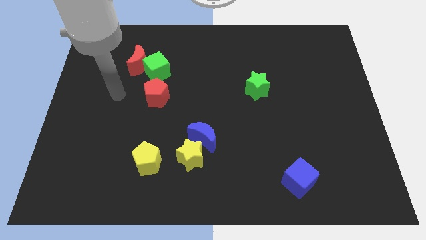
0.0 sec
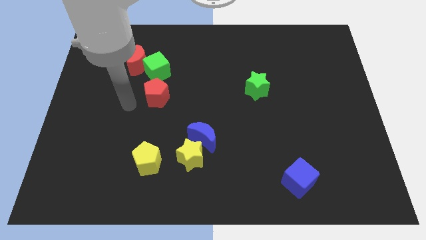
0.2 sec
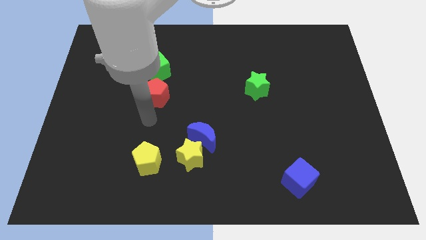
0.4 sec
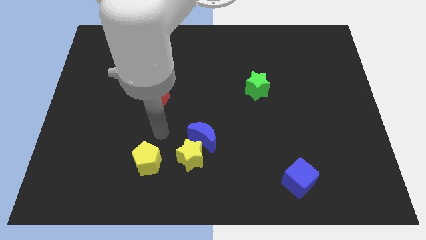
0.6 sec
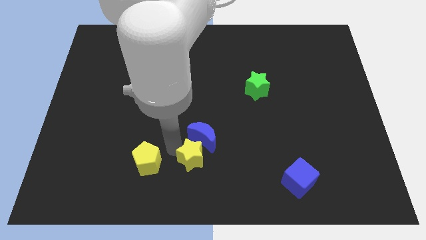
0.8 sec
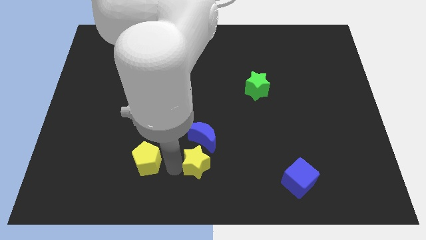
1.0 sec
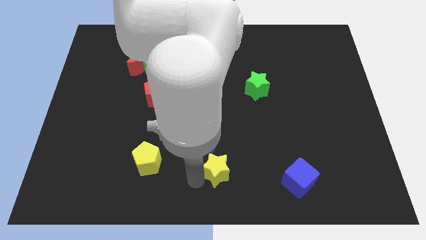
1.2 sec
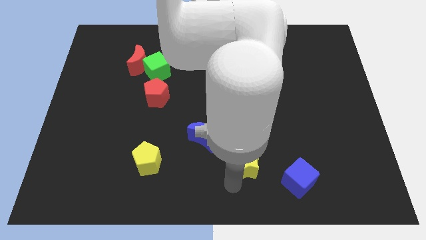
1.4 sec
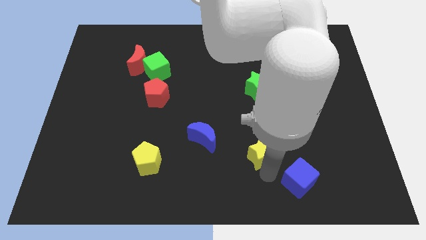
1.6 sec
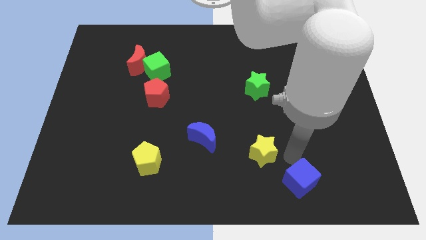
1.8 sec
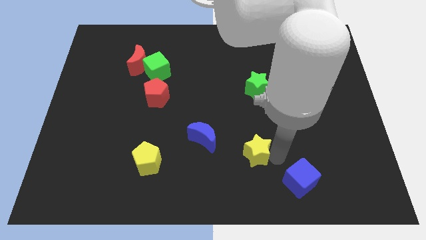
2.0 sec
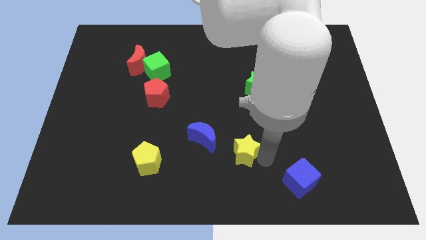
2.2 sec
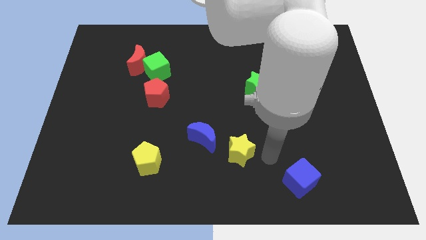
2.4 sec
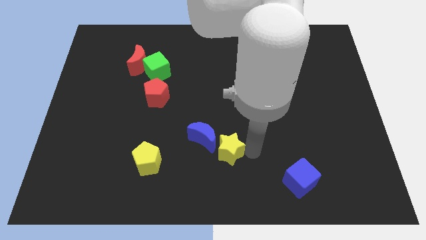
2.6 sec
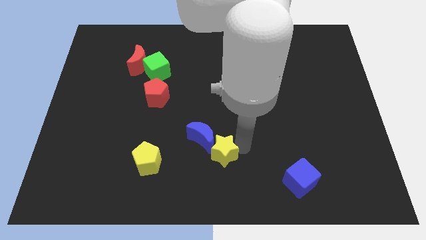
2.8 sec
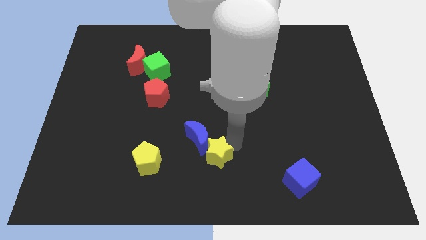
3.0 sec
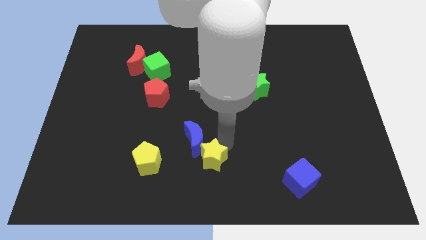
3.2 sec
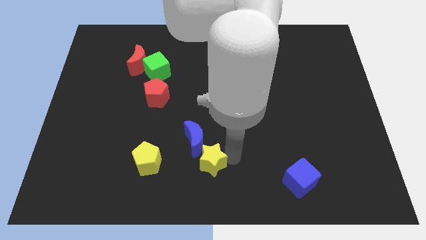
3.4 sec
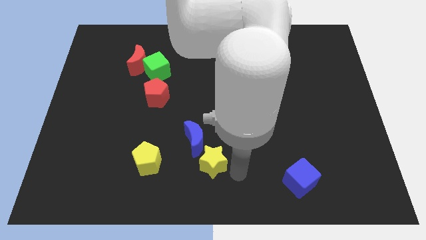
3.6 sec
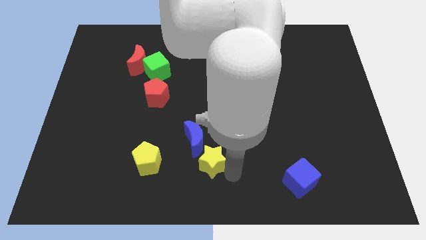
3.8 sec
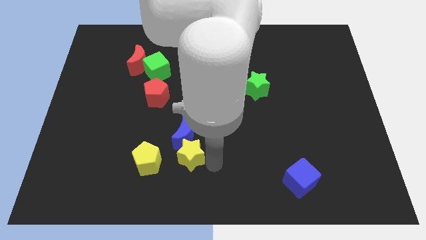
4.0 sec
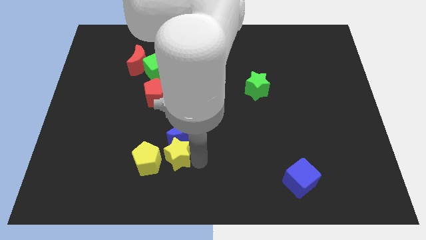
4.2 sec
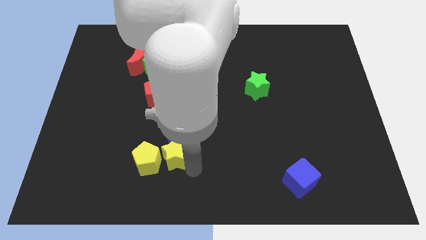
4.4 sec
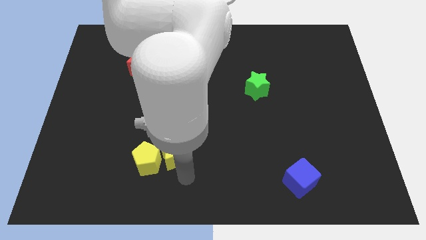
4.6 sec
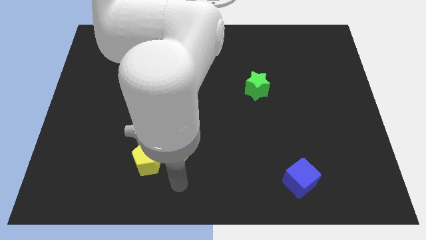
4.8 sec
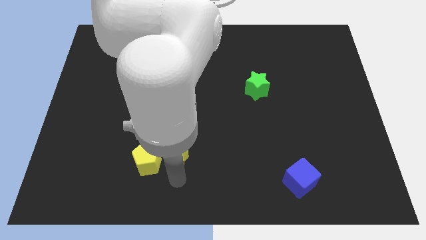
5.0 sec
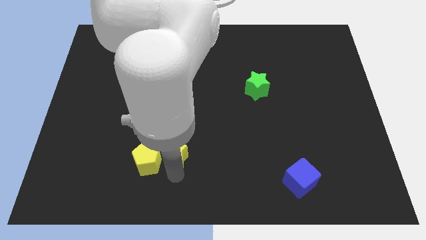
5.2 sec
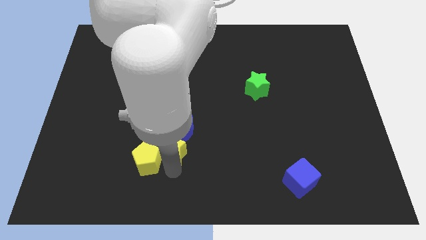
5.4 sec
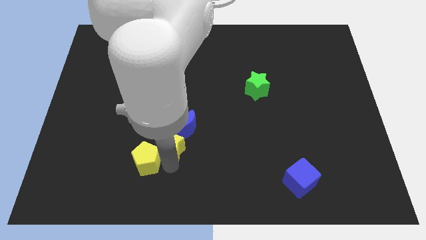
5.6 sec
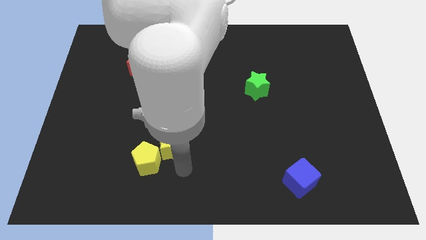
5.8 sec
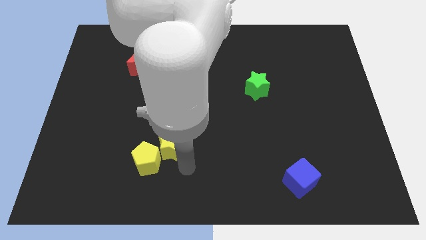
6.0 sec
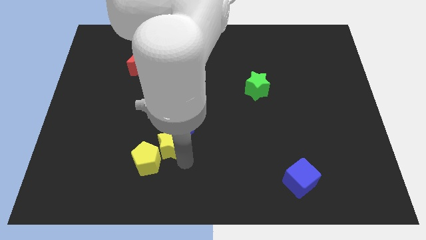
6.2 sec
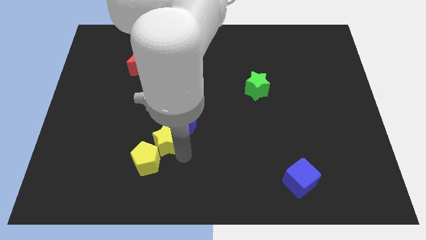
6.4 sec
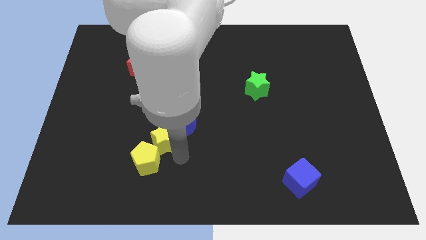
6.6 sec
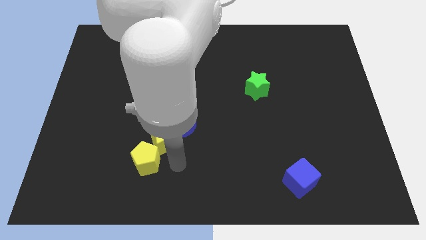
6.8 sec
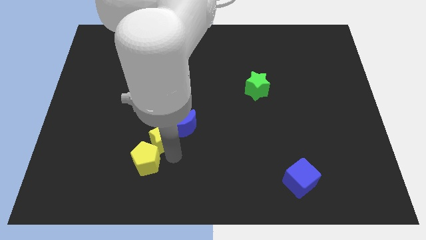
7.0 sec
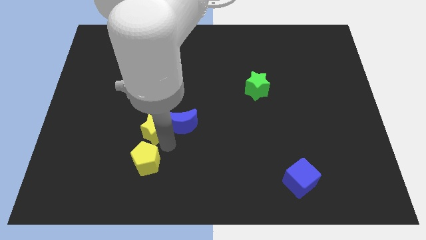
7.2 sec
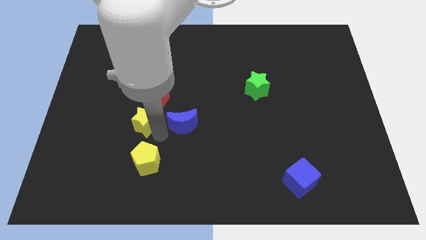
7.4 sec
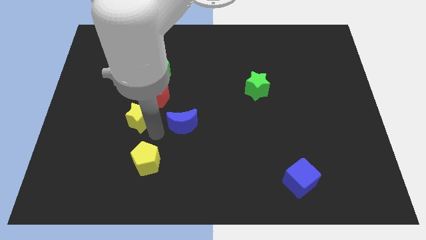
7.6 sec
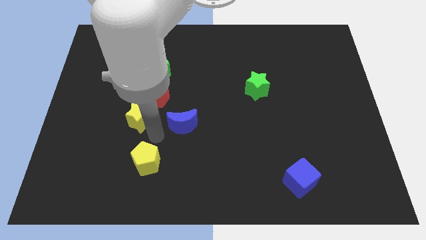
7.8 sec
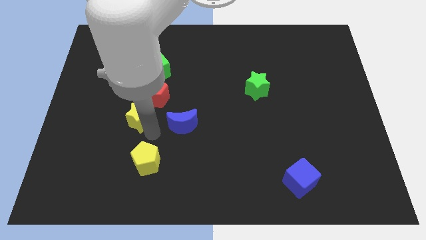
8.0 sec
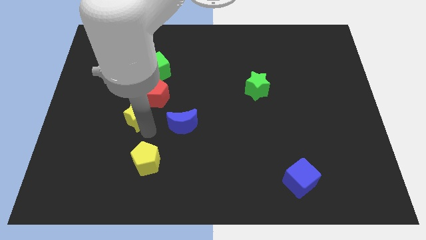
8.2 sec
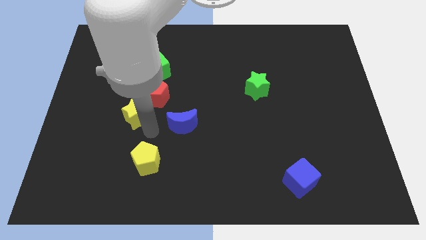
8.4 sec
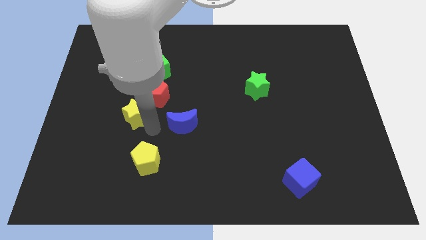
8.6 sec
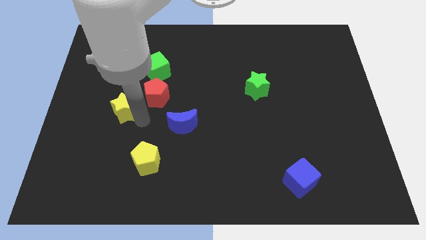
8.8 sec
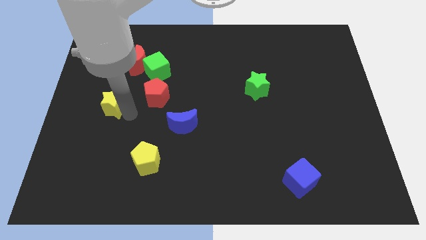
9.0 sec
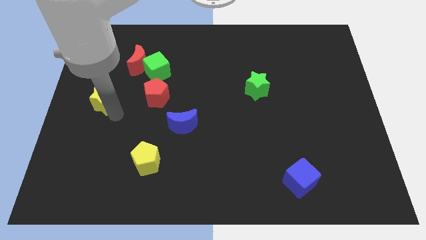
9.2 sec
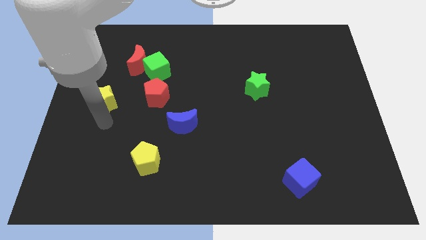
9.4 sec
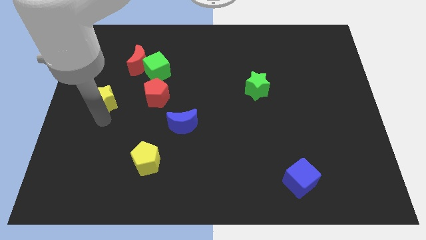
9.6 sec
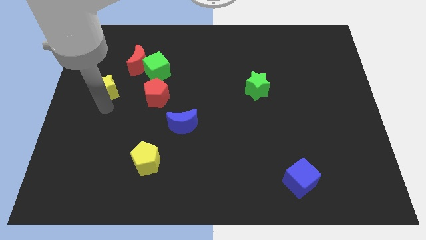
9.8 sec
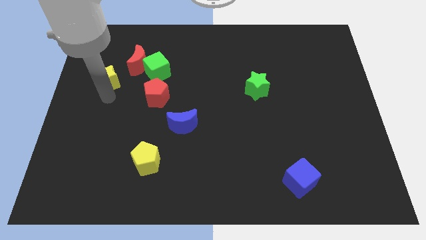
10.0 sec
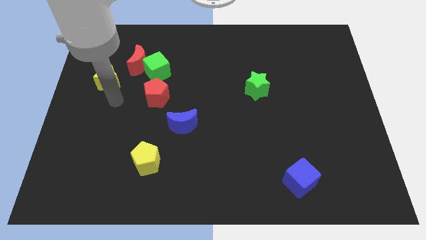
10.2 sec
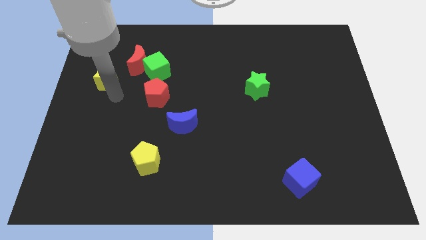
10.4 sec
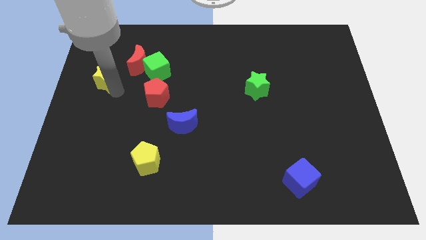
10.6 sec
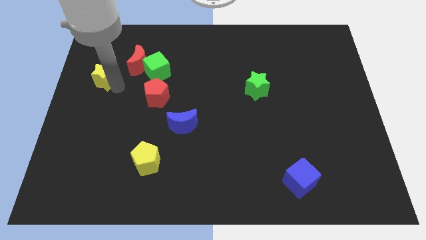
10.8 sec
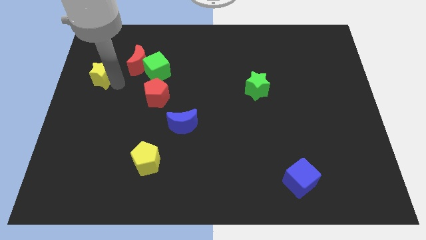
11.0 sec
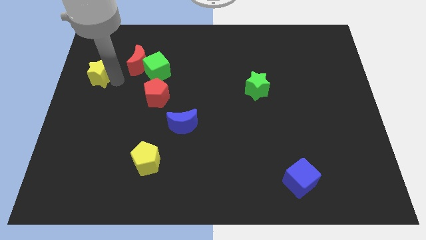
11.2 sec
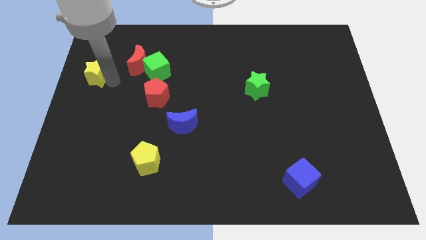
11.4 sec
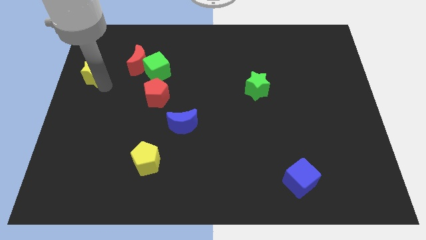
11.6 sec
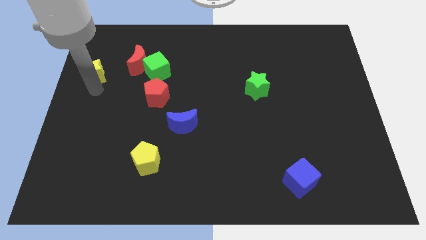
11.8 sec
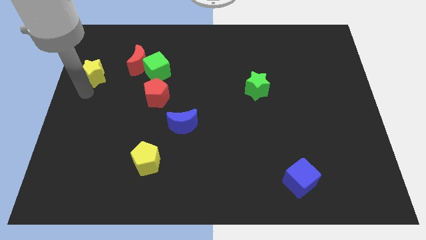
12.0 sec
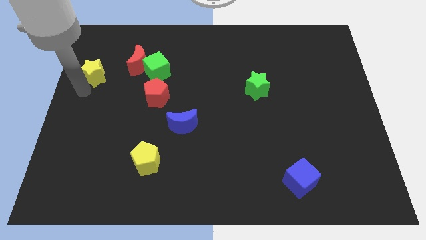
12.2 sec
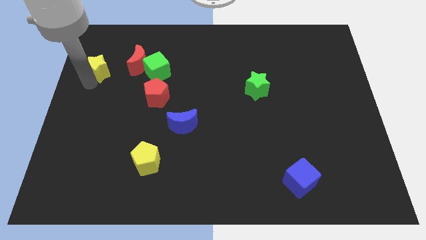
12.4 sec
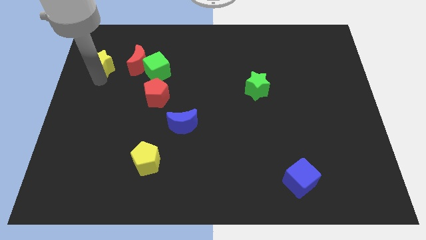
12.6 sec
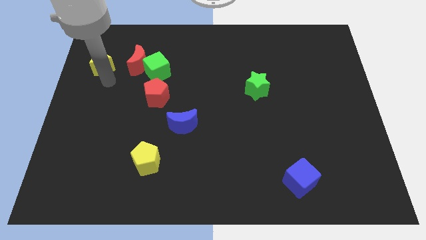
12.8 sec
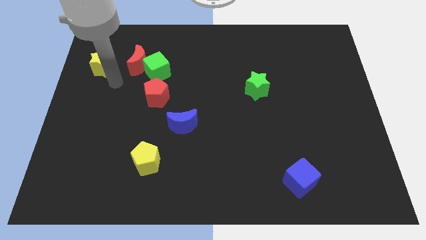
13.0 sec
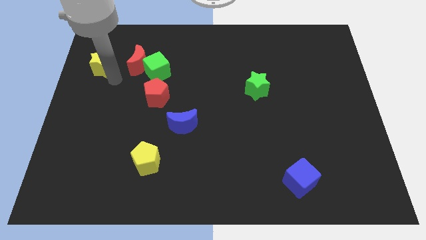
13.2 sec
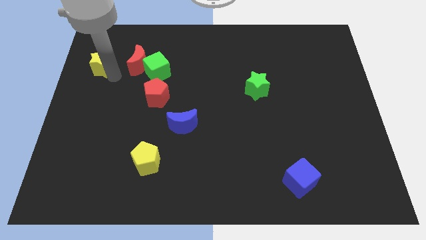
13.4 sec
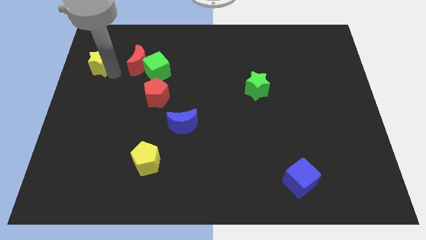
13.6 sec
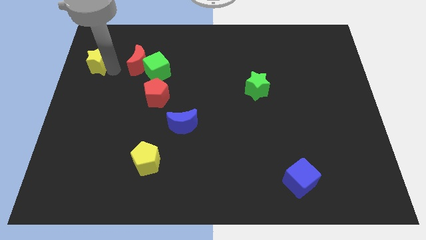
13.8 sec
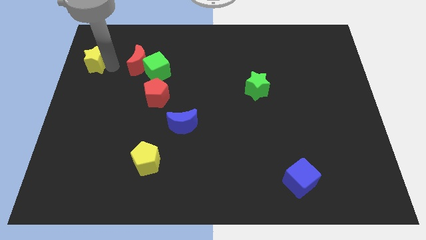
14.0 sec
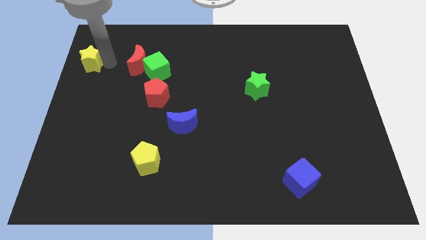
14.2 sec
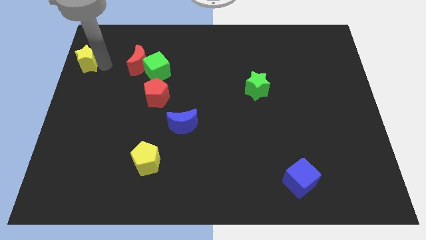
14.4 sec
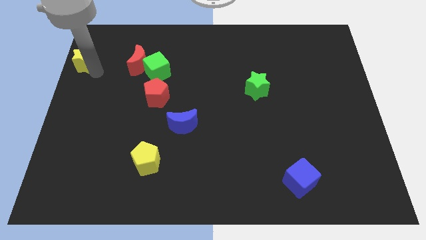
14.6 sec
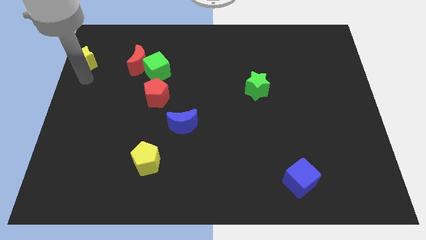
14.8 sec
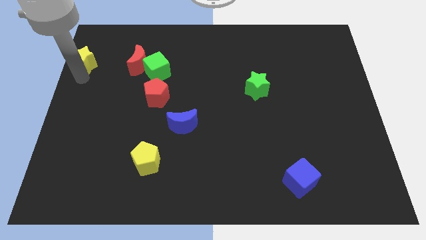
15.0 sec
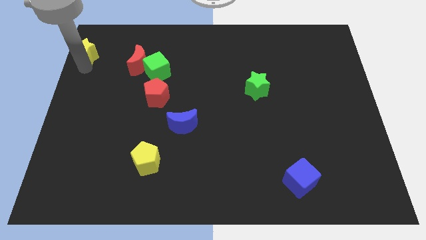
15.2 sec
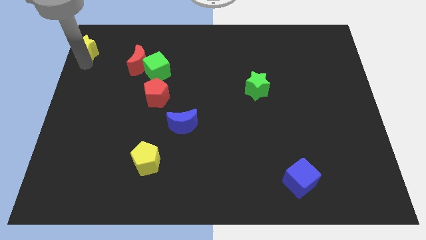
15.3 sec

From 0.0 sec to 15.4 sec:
move the yellow star to the upper left corner
